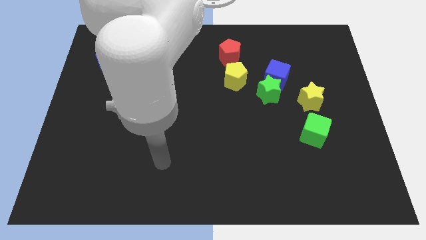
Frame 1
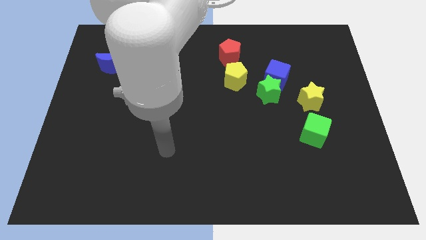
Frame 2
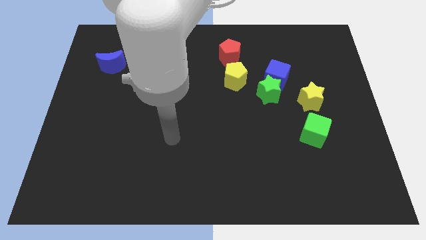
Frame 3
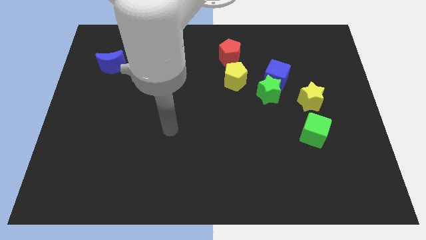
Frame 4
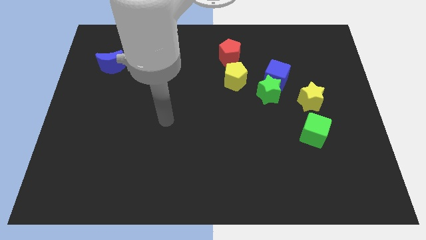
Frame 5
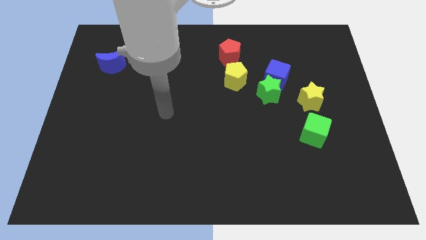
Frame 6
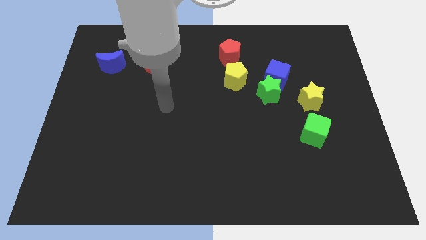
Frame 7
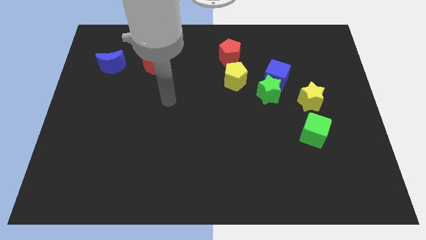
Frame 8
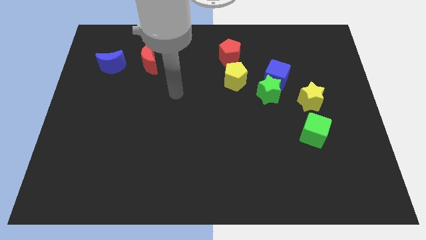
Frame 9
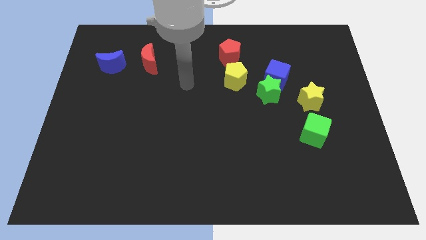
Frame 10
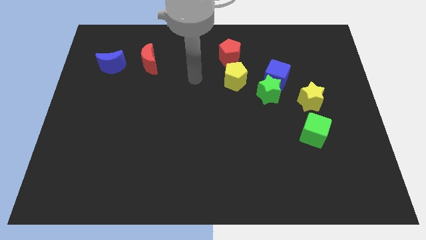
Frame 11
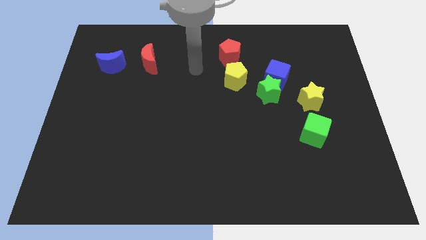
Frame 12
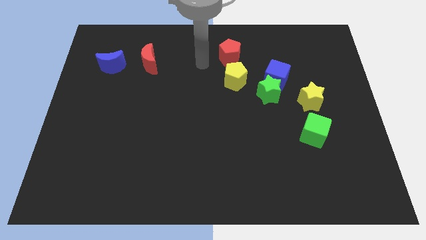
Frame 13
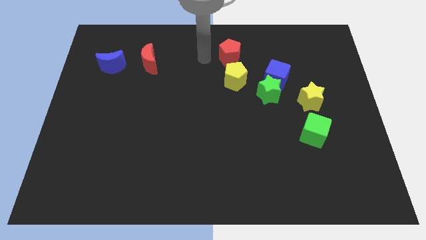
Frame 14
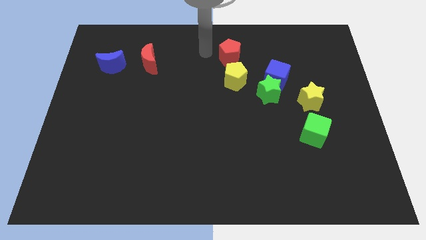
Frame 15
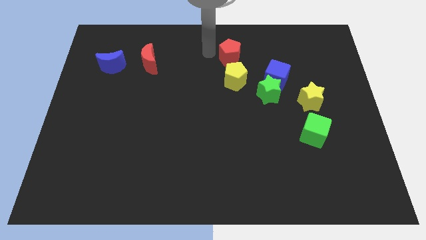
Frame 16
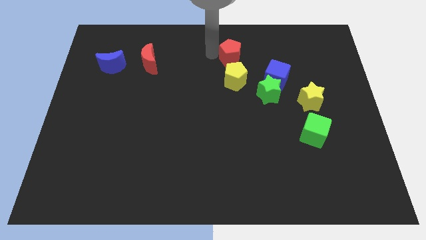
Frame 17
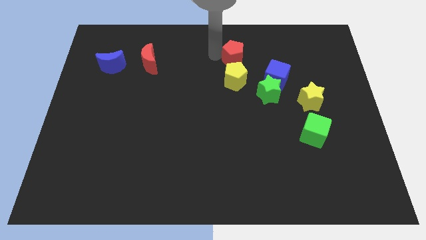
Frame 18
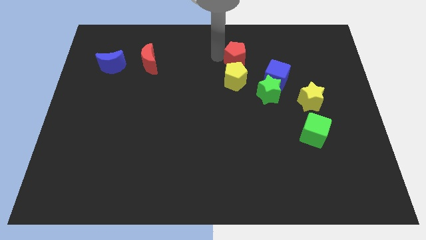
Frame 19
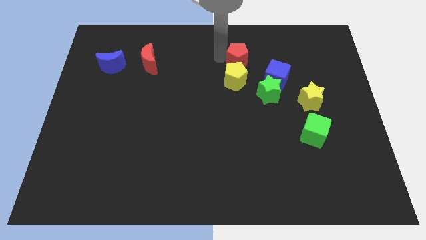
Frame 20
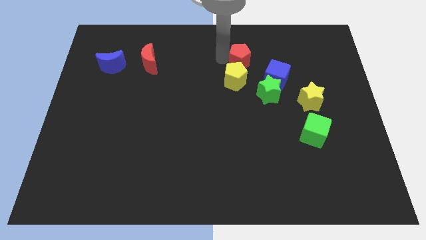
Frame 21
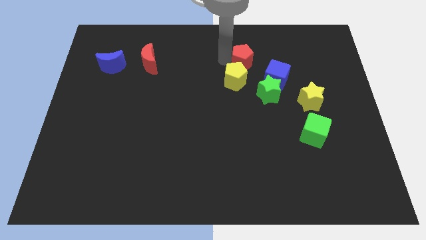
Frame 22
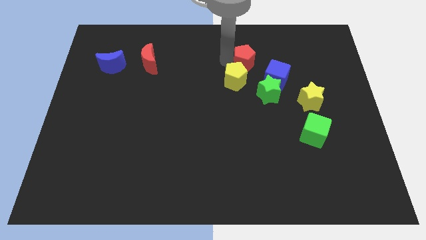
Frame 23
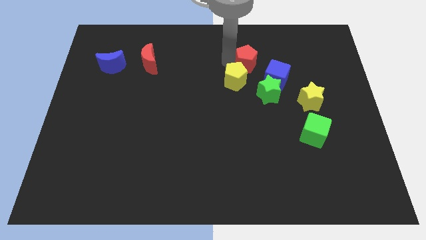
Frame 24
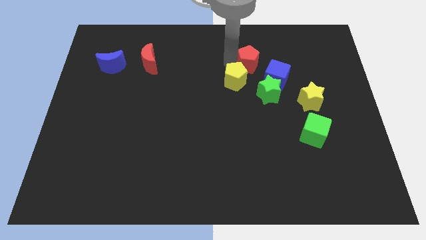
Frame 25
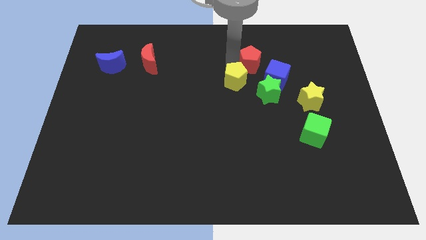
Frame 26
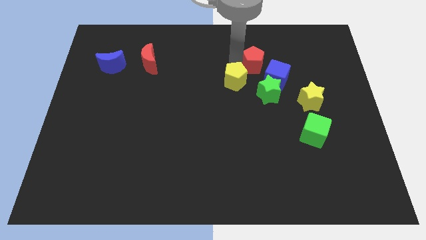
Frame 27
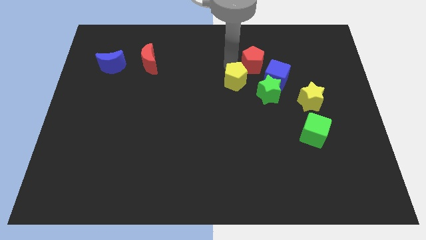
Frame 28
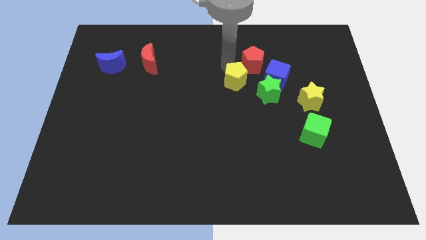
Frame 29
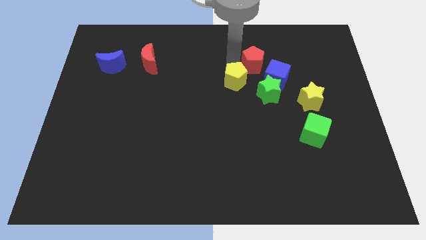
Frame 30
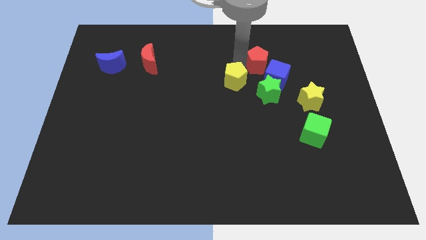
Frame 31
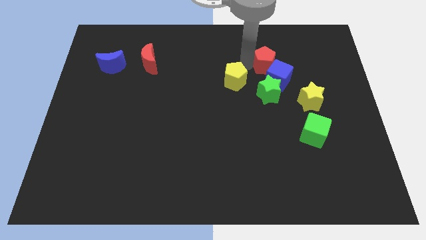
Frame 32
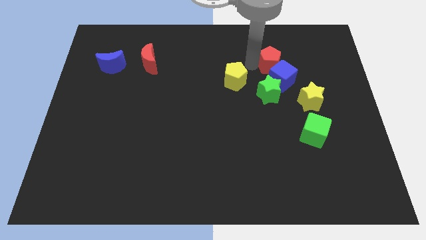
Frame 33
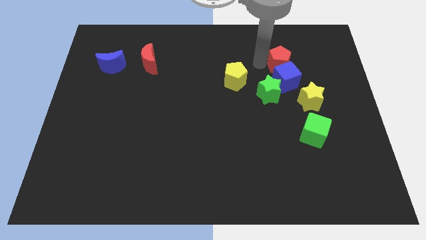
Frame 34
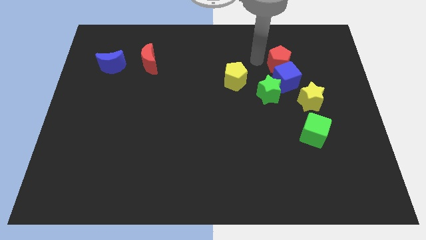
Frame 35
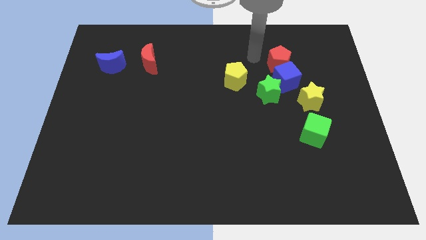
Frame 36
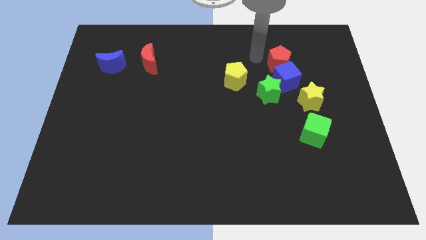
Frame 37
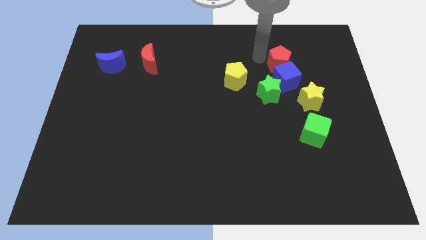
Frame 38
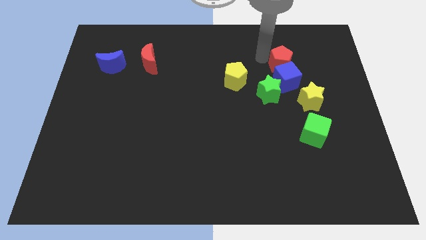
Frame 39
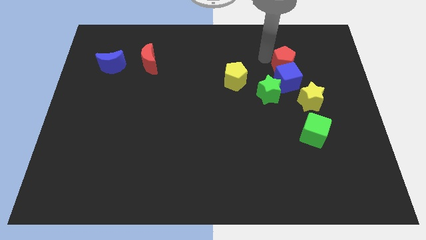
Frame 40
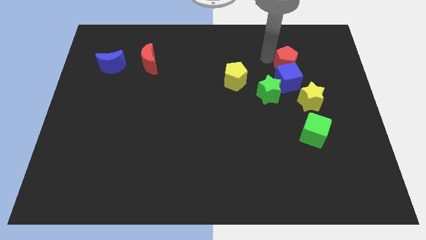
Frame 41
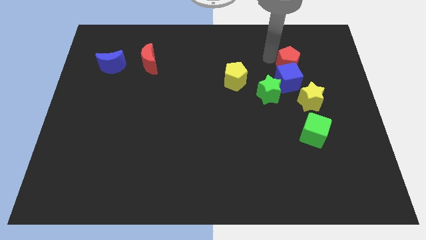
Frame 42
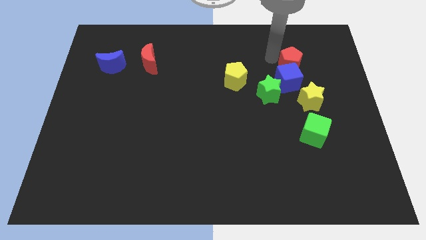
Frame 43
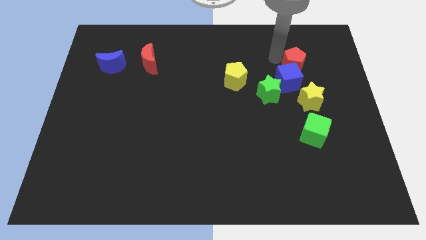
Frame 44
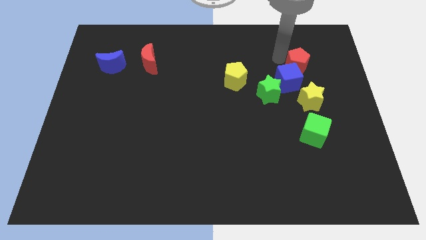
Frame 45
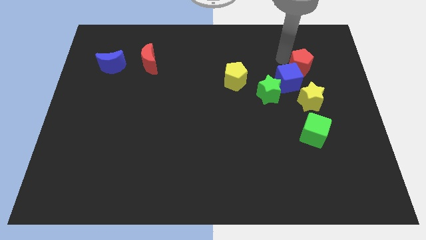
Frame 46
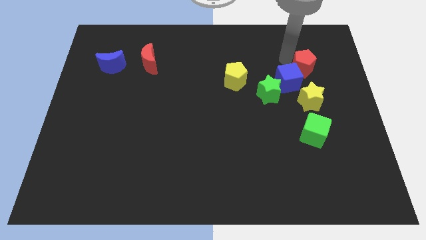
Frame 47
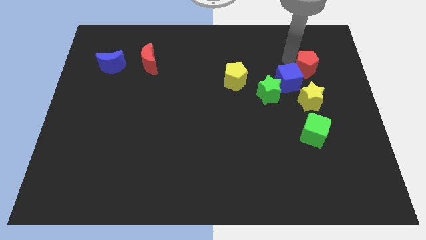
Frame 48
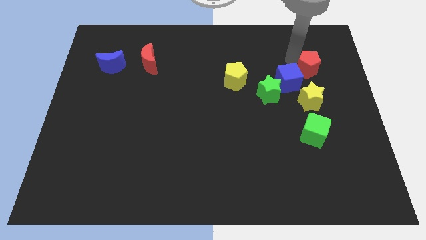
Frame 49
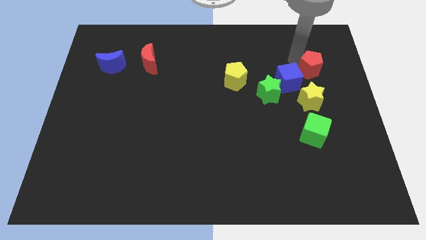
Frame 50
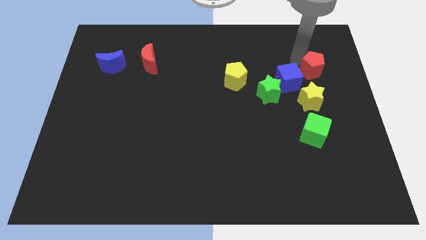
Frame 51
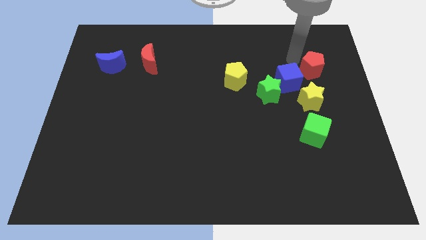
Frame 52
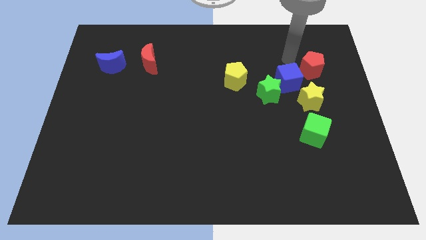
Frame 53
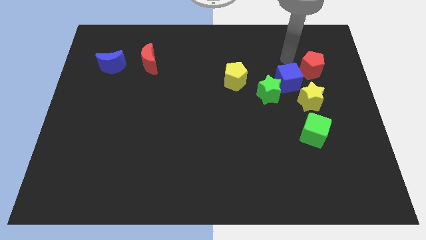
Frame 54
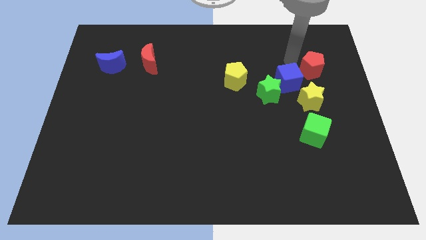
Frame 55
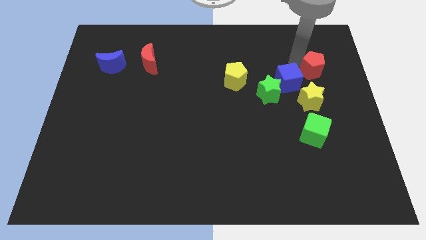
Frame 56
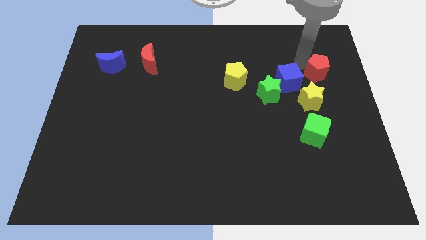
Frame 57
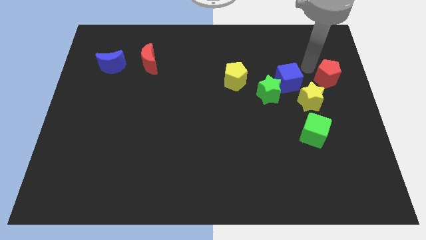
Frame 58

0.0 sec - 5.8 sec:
slide the red pentagon to the right side of the board

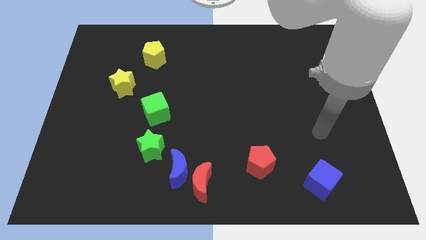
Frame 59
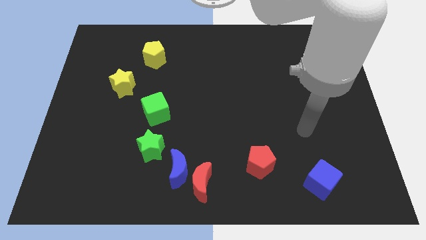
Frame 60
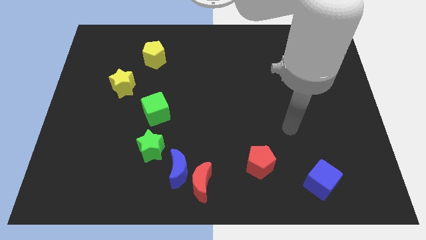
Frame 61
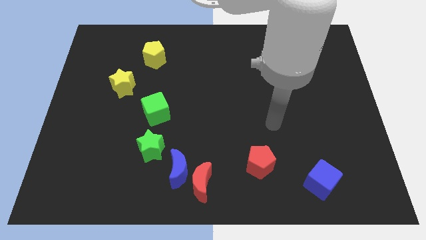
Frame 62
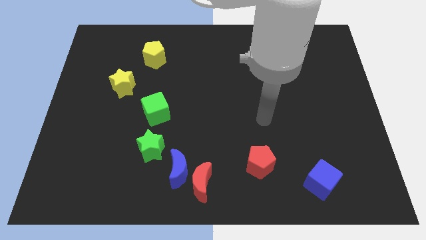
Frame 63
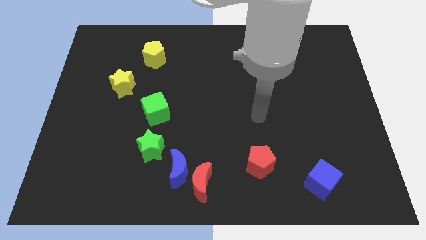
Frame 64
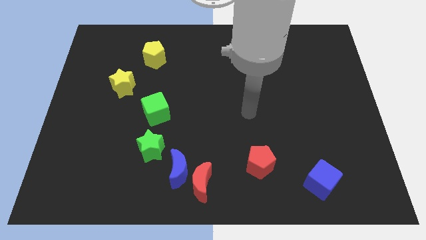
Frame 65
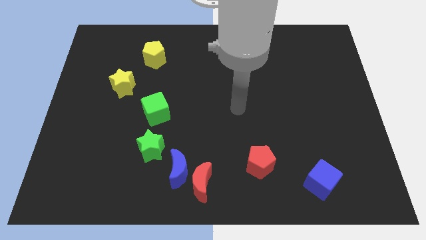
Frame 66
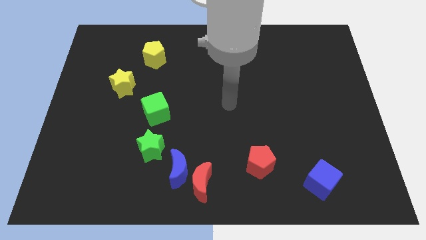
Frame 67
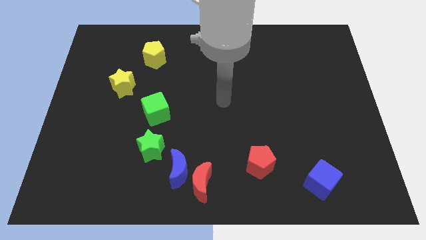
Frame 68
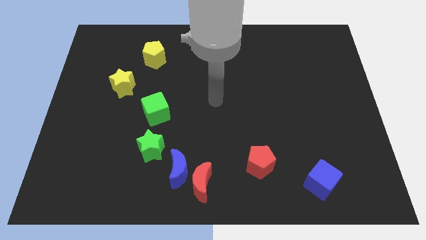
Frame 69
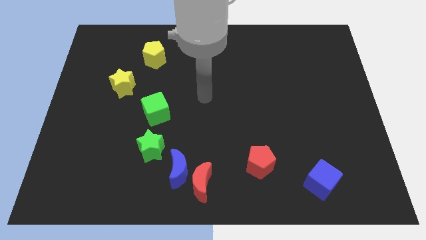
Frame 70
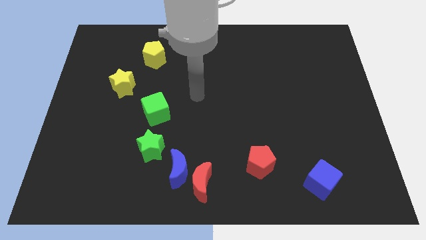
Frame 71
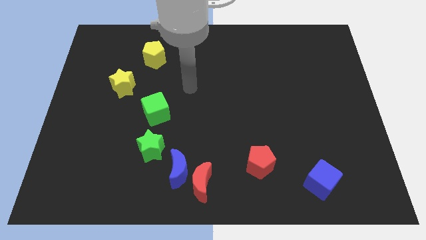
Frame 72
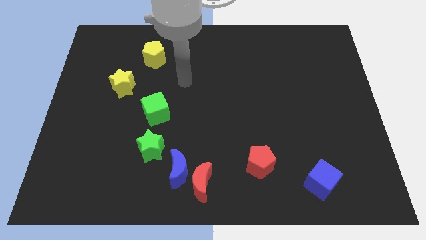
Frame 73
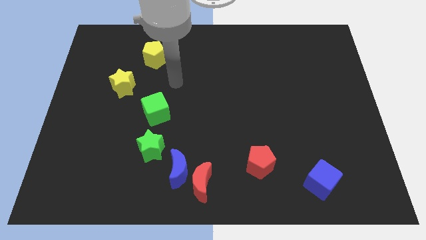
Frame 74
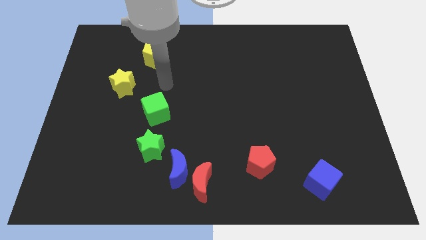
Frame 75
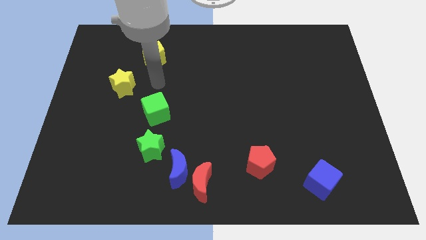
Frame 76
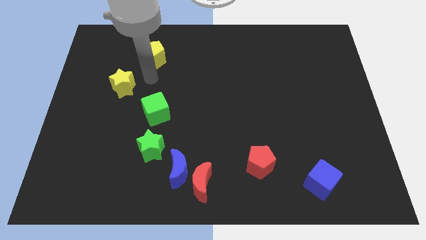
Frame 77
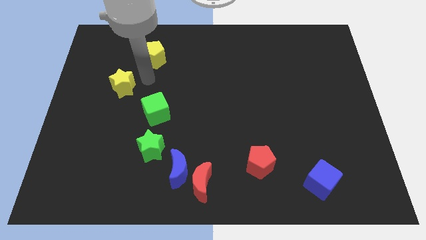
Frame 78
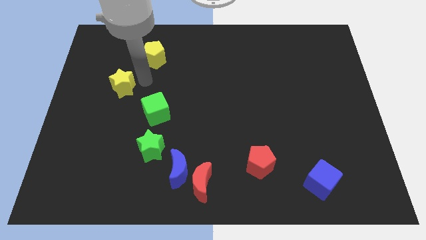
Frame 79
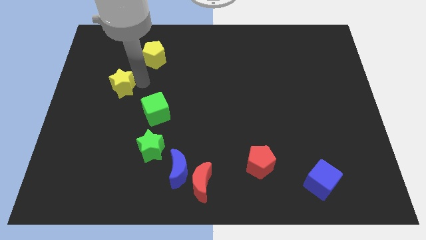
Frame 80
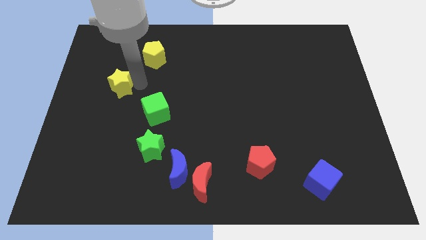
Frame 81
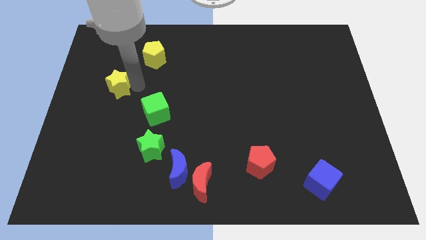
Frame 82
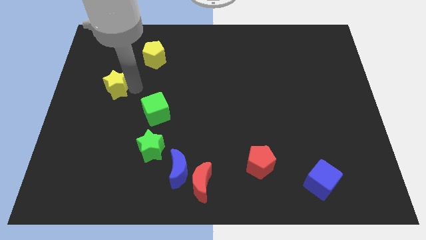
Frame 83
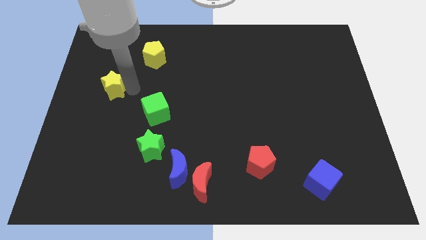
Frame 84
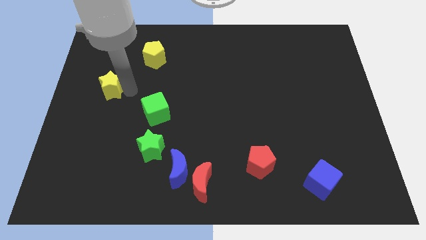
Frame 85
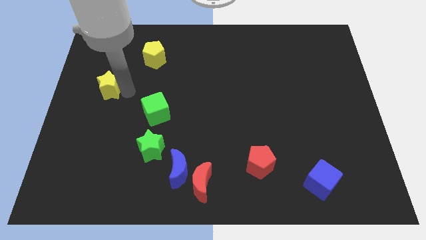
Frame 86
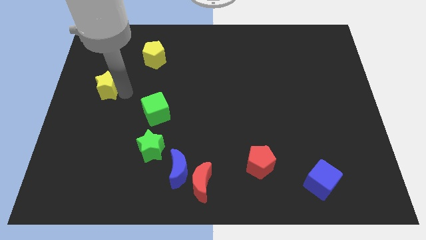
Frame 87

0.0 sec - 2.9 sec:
put the yellow star to the left side
